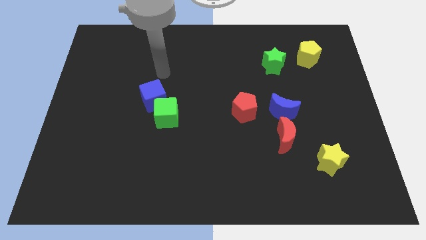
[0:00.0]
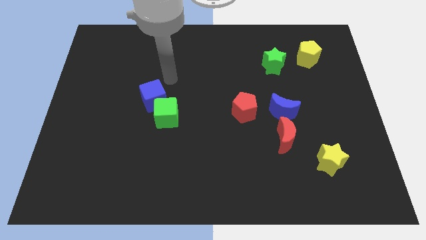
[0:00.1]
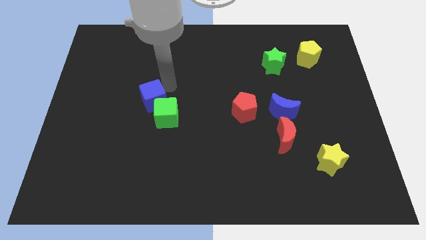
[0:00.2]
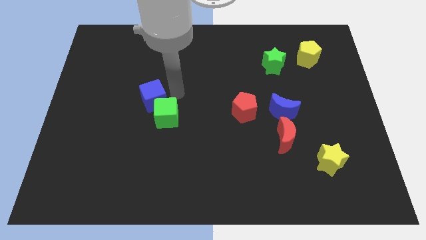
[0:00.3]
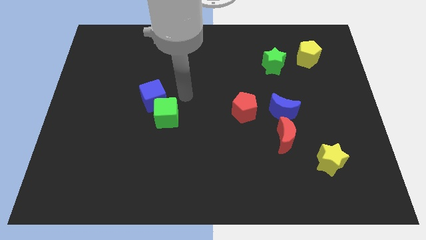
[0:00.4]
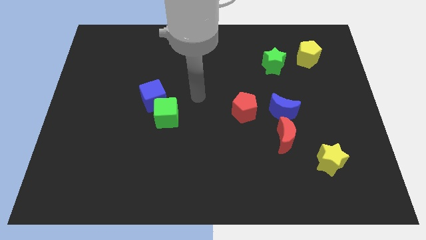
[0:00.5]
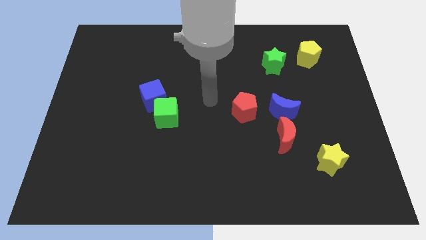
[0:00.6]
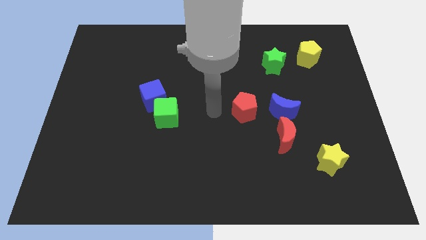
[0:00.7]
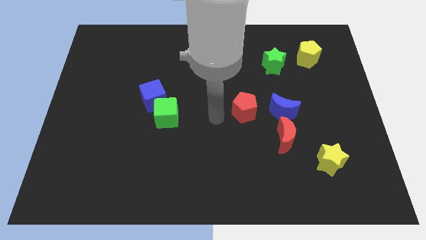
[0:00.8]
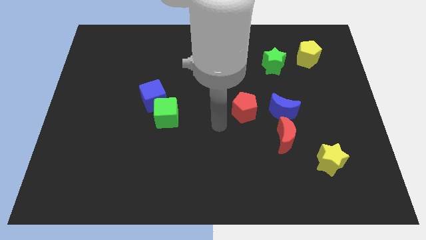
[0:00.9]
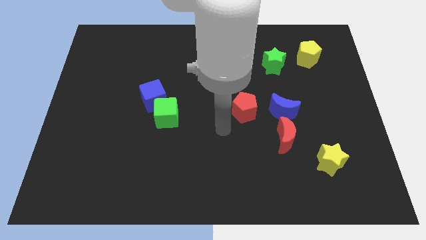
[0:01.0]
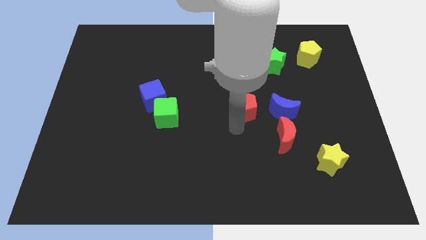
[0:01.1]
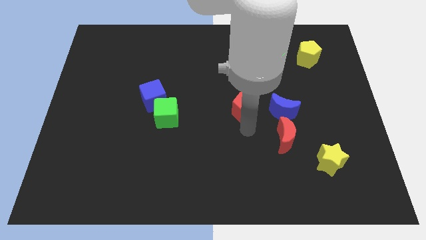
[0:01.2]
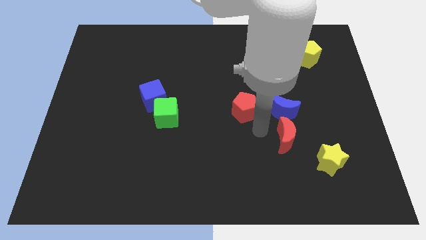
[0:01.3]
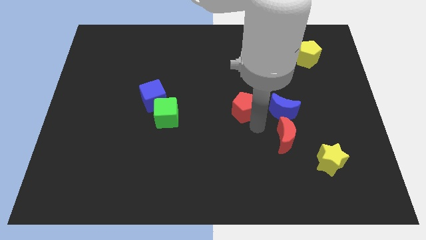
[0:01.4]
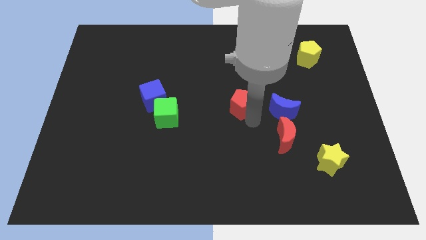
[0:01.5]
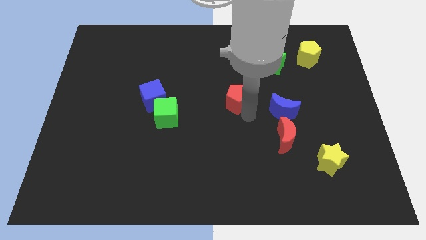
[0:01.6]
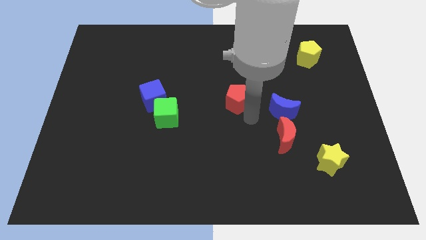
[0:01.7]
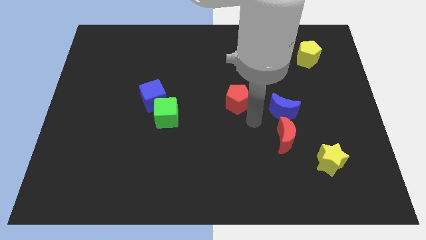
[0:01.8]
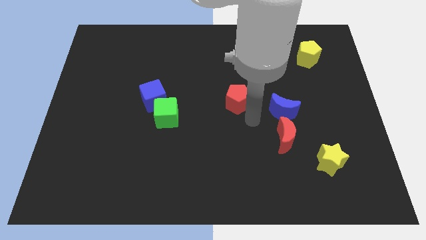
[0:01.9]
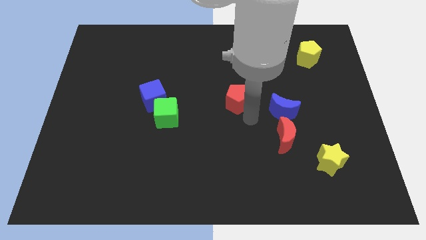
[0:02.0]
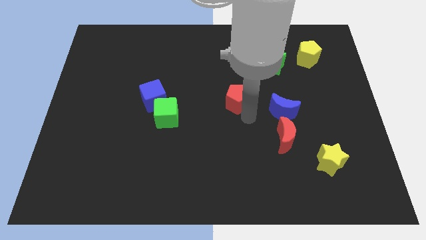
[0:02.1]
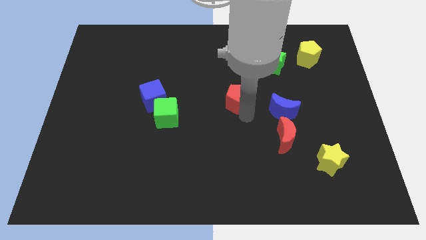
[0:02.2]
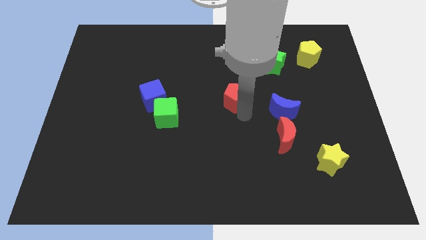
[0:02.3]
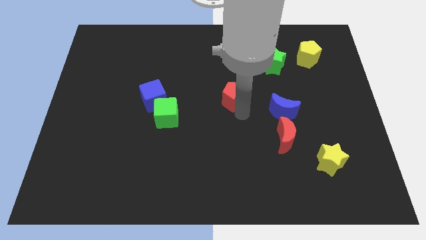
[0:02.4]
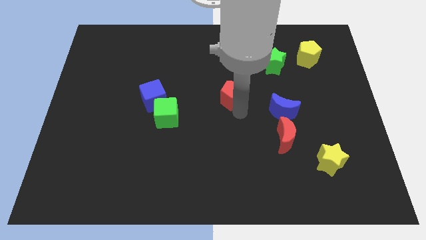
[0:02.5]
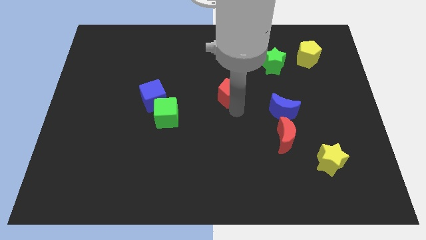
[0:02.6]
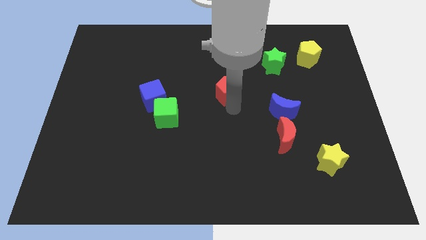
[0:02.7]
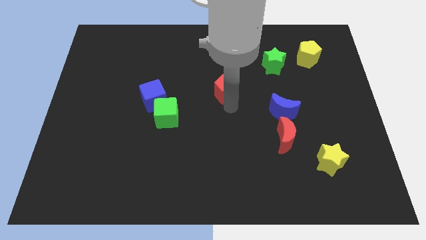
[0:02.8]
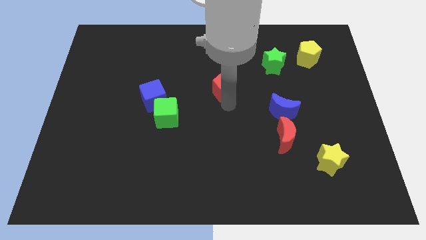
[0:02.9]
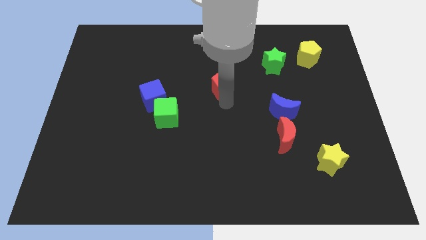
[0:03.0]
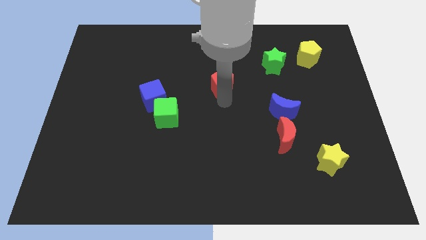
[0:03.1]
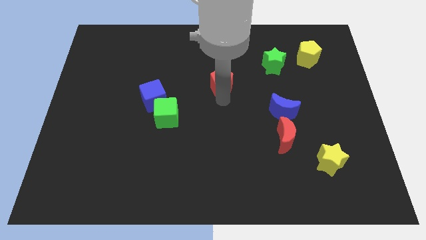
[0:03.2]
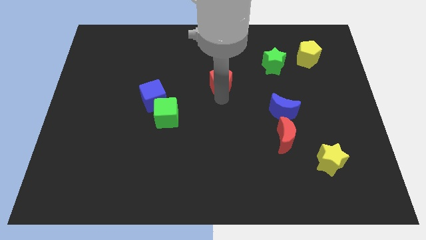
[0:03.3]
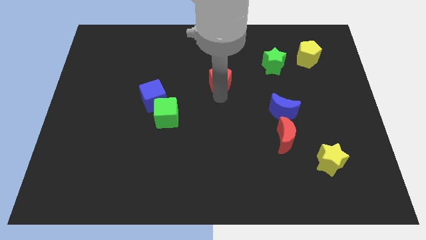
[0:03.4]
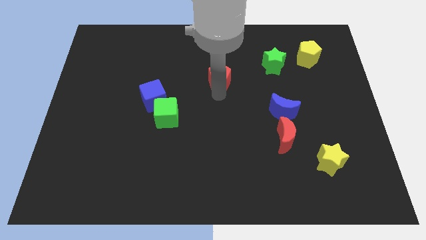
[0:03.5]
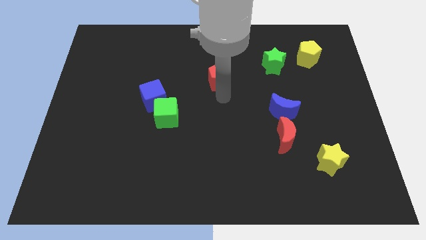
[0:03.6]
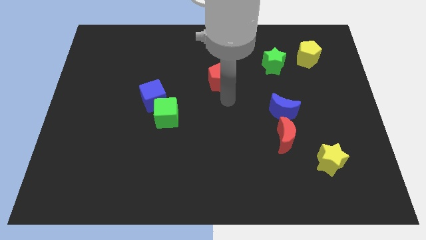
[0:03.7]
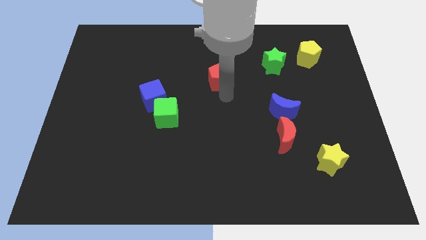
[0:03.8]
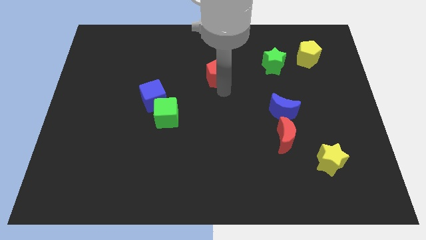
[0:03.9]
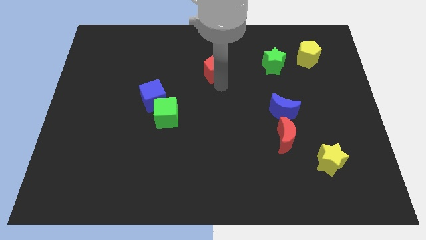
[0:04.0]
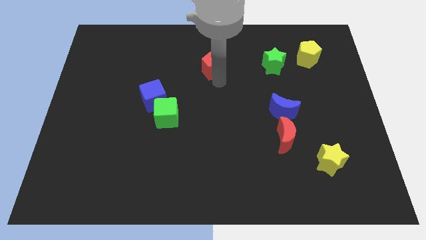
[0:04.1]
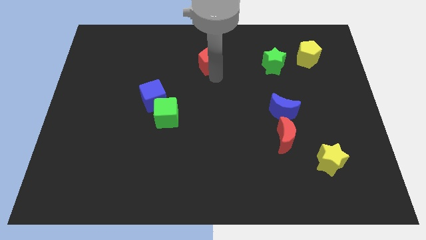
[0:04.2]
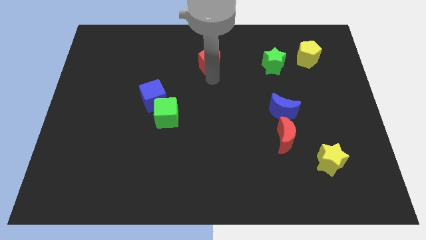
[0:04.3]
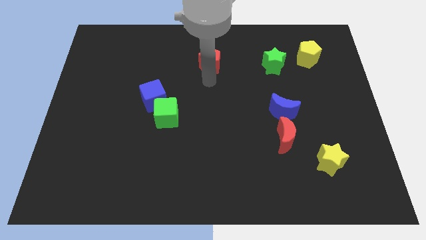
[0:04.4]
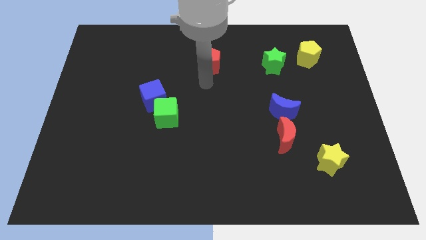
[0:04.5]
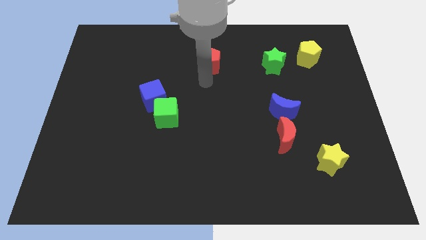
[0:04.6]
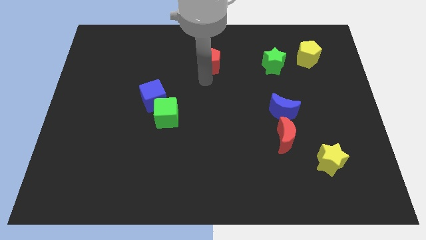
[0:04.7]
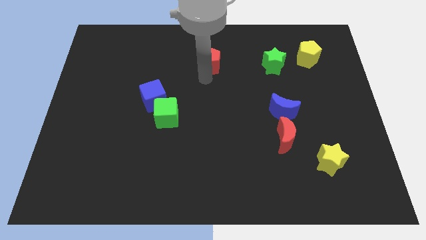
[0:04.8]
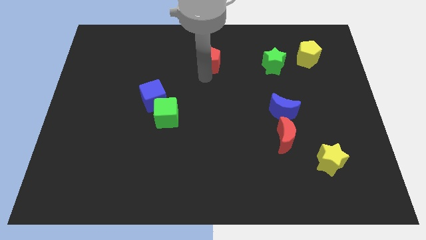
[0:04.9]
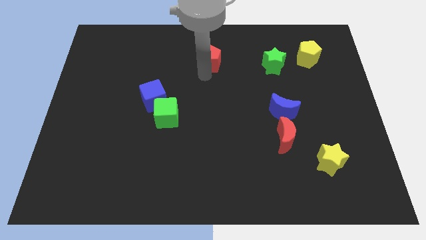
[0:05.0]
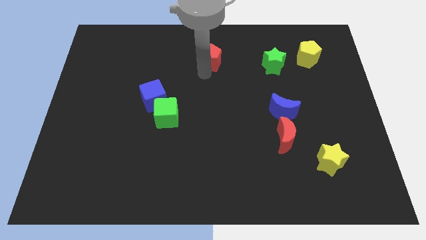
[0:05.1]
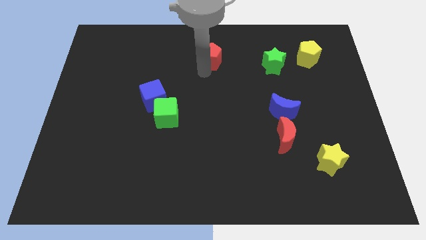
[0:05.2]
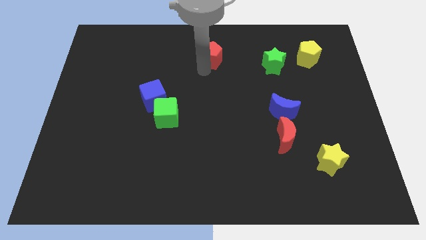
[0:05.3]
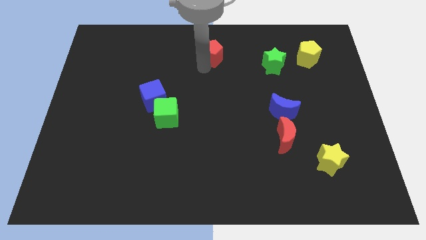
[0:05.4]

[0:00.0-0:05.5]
put the red pentagon to the top side

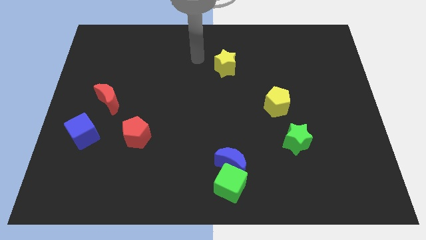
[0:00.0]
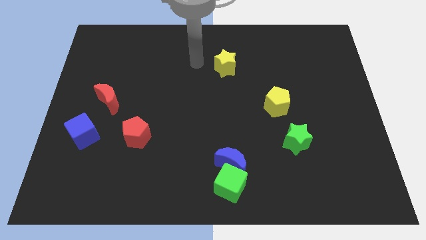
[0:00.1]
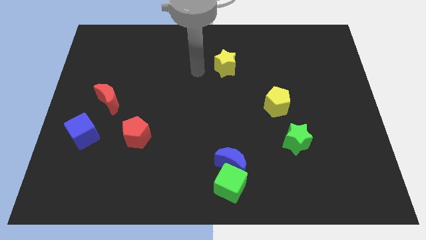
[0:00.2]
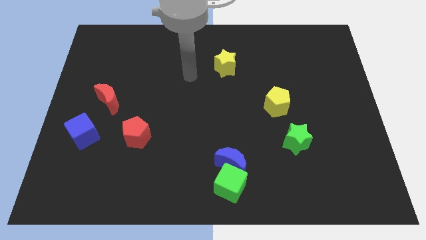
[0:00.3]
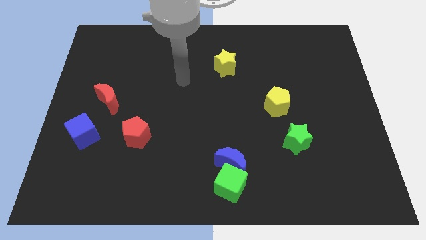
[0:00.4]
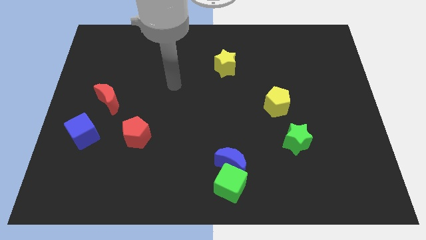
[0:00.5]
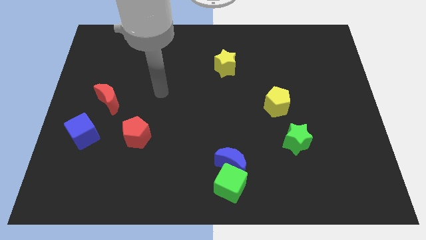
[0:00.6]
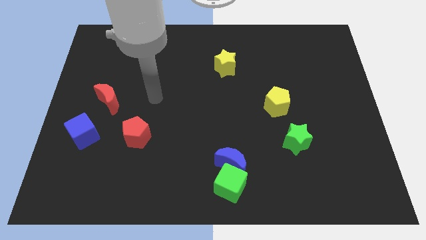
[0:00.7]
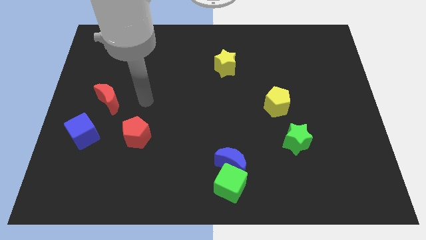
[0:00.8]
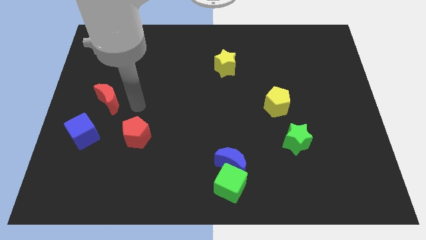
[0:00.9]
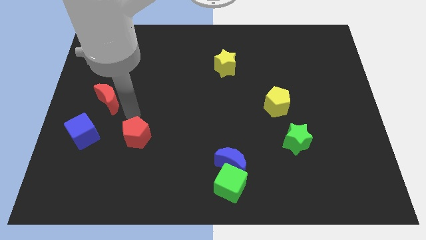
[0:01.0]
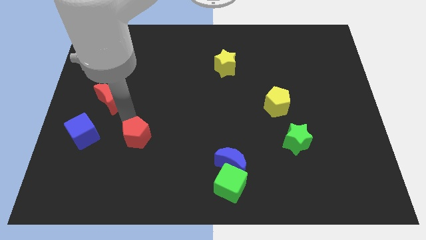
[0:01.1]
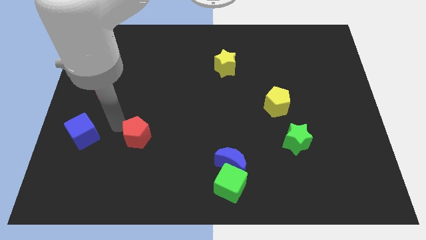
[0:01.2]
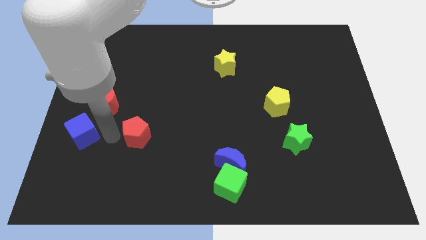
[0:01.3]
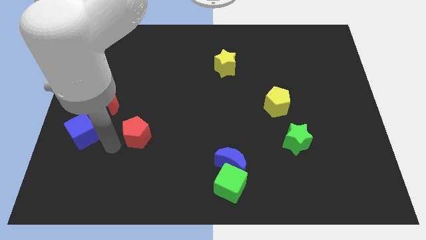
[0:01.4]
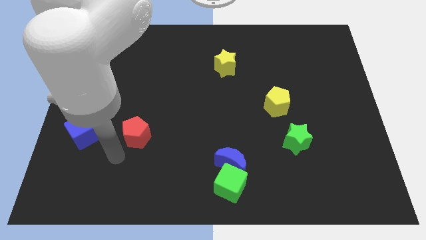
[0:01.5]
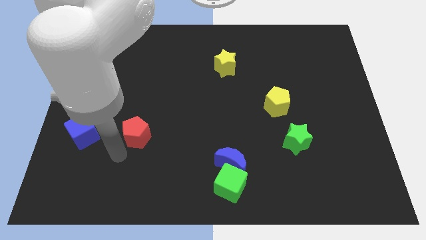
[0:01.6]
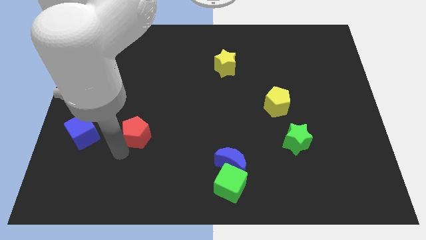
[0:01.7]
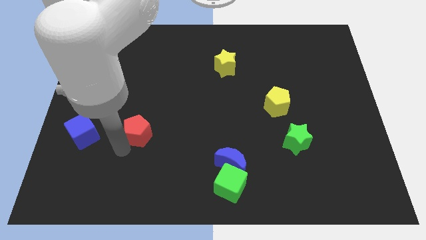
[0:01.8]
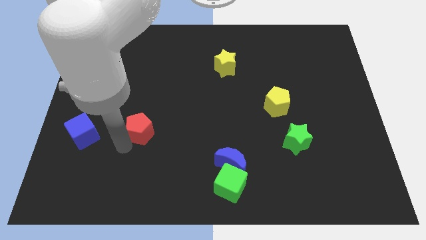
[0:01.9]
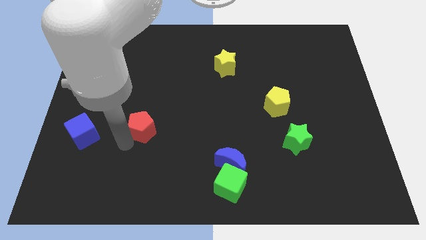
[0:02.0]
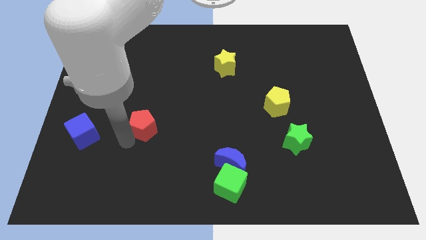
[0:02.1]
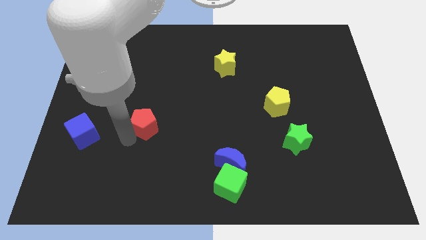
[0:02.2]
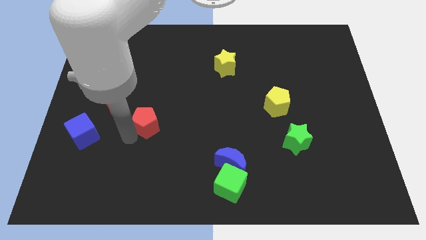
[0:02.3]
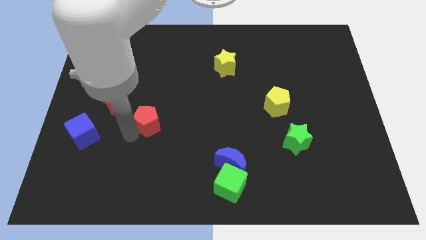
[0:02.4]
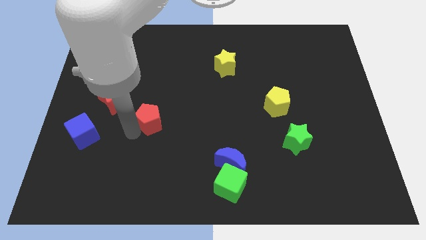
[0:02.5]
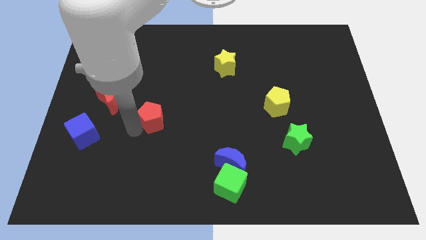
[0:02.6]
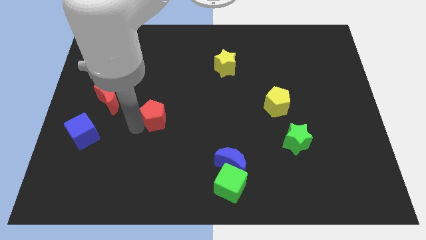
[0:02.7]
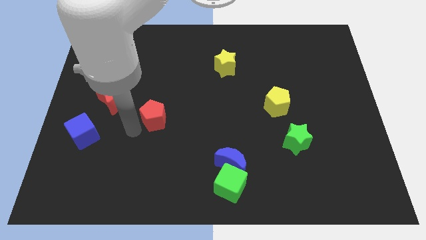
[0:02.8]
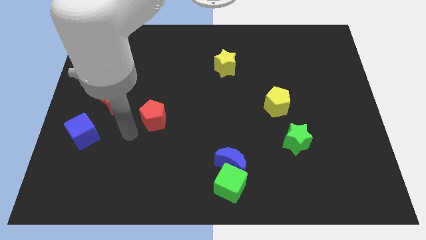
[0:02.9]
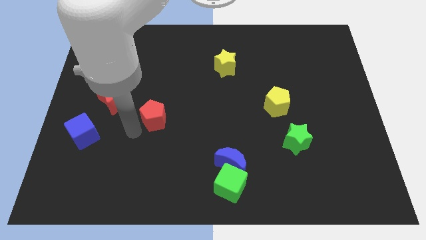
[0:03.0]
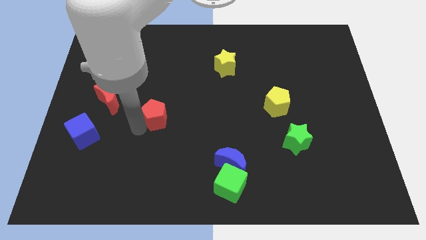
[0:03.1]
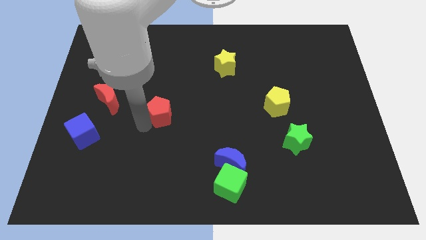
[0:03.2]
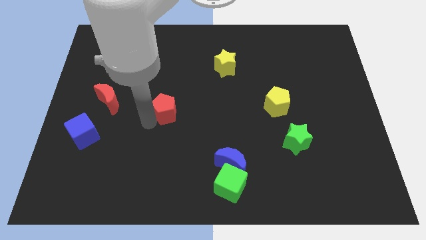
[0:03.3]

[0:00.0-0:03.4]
put the red pentagon to the center of the board
